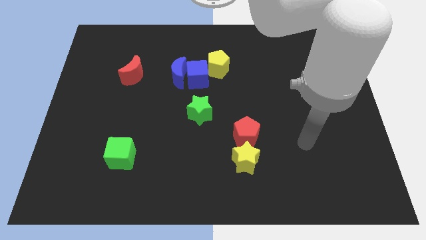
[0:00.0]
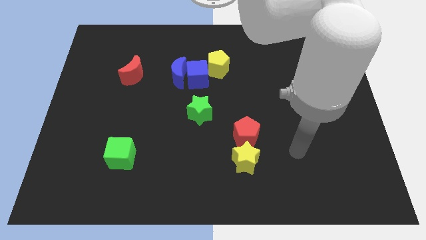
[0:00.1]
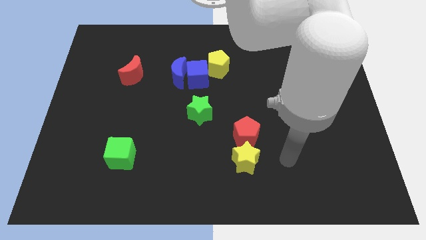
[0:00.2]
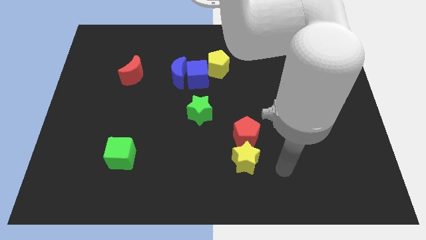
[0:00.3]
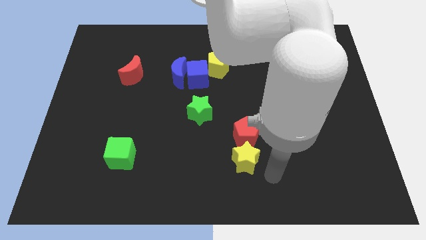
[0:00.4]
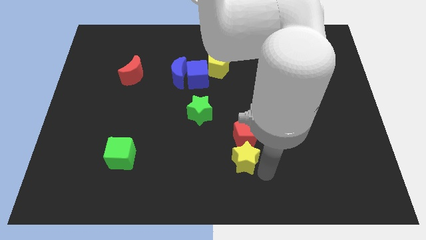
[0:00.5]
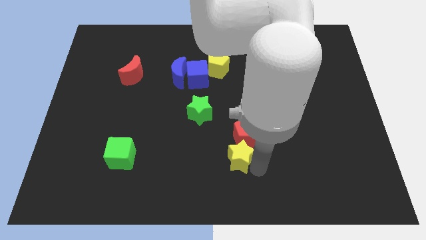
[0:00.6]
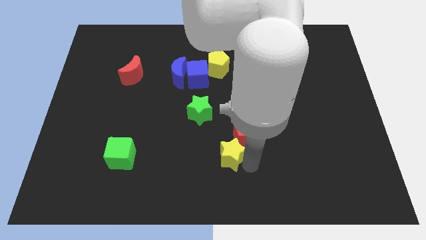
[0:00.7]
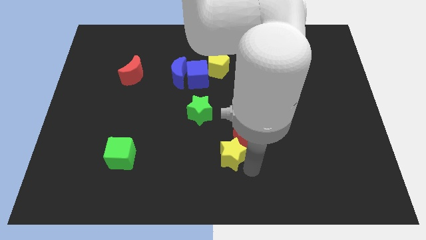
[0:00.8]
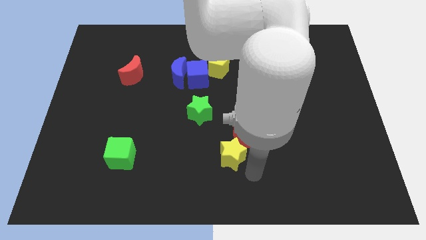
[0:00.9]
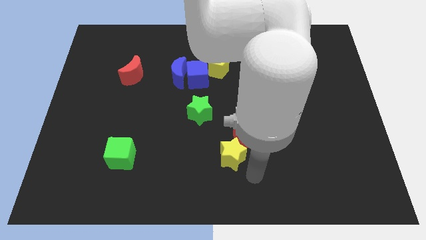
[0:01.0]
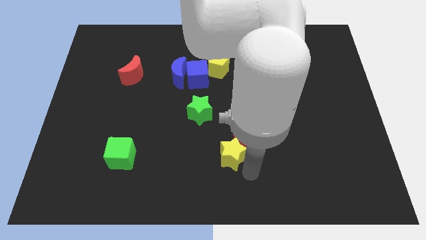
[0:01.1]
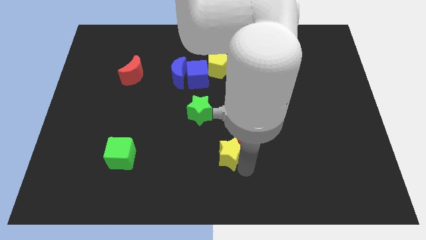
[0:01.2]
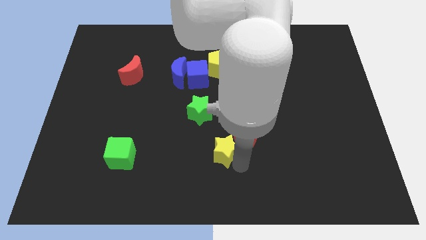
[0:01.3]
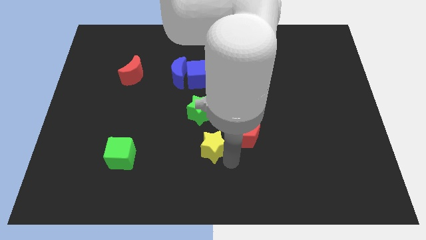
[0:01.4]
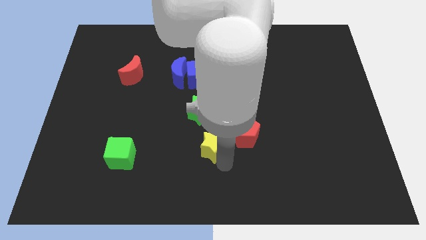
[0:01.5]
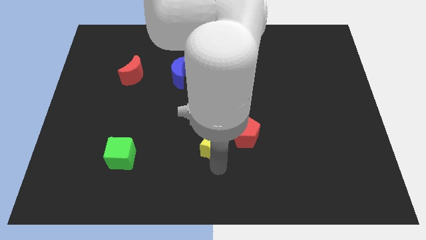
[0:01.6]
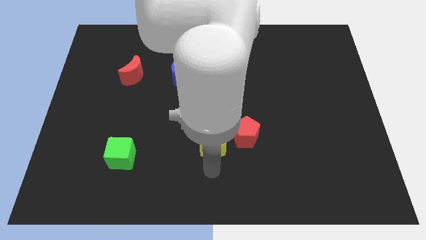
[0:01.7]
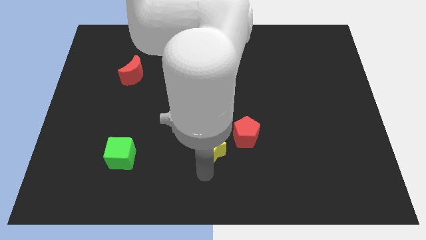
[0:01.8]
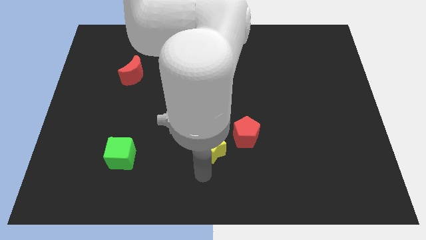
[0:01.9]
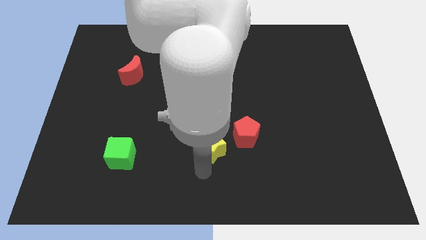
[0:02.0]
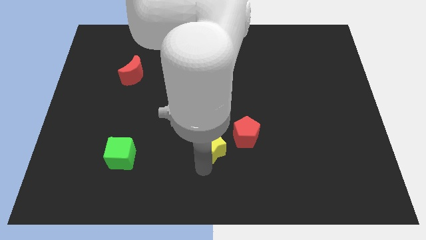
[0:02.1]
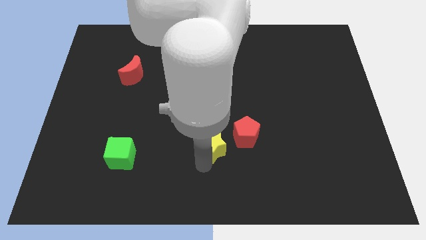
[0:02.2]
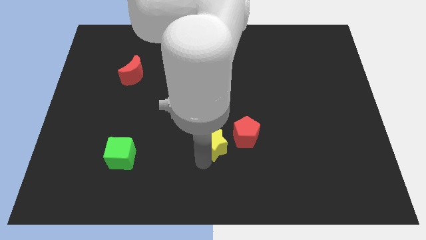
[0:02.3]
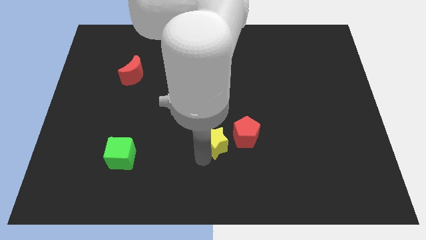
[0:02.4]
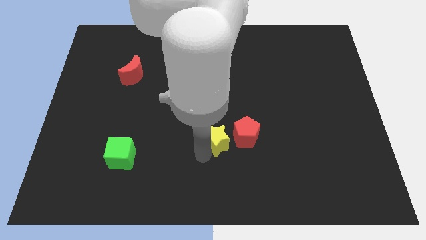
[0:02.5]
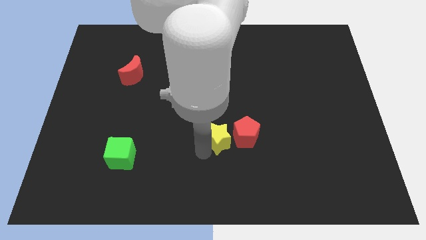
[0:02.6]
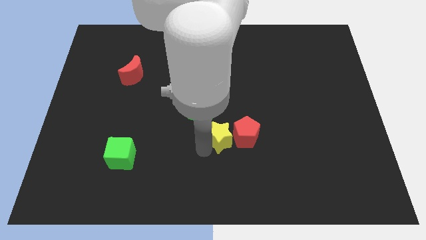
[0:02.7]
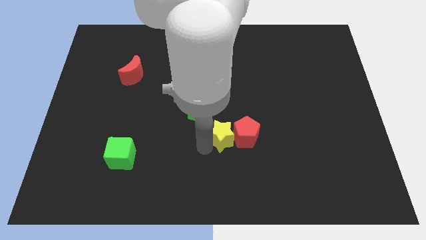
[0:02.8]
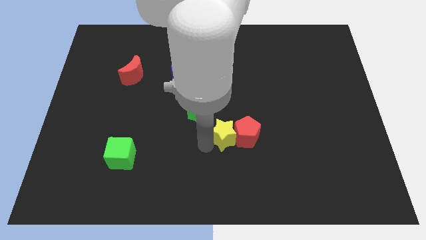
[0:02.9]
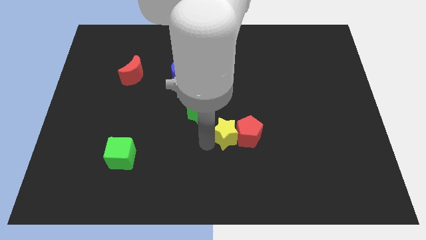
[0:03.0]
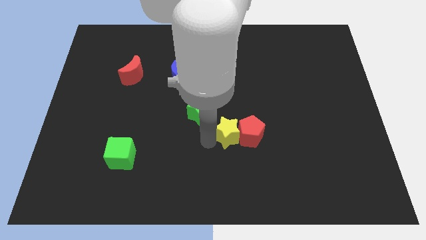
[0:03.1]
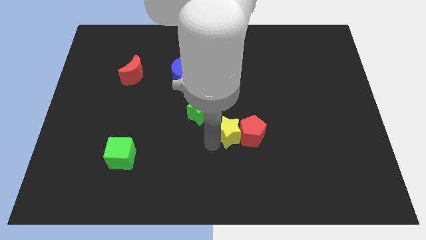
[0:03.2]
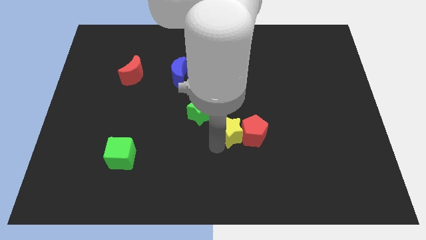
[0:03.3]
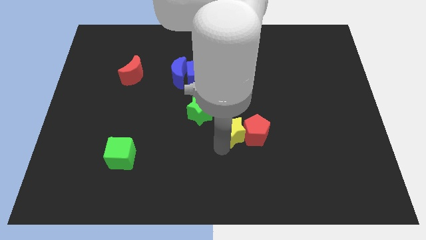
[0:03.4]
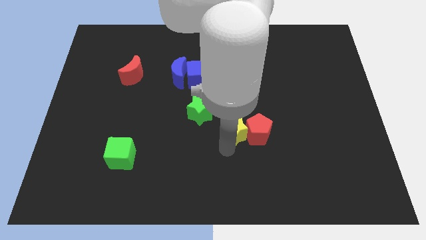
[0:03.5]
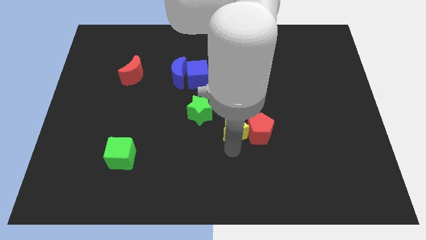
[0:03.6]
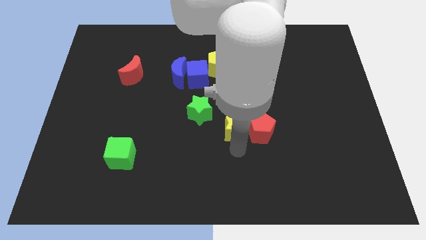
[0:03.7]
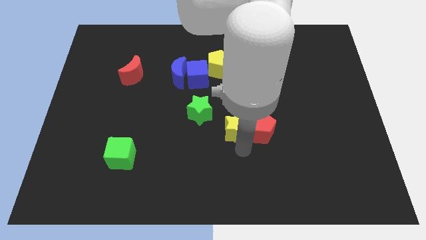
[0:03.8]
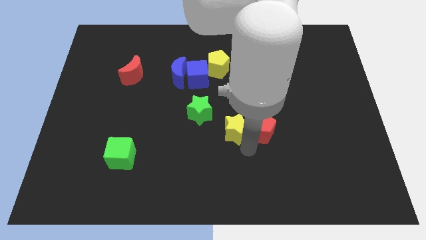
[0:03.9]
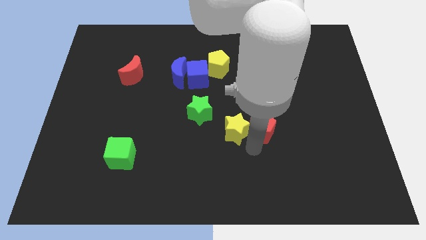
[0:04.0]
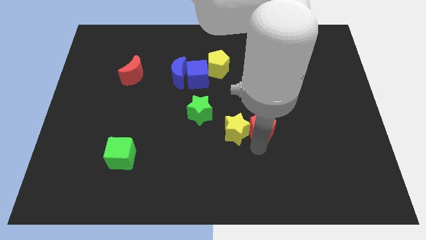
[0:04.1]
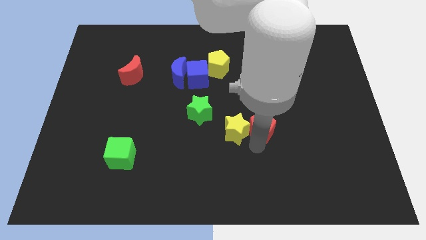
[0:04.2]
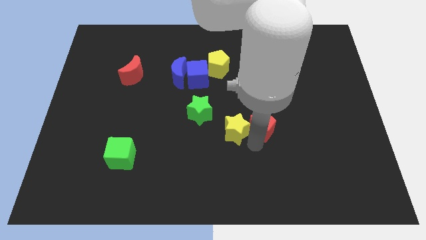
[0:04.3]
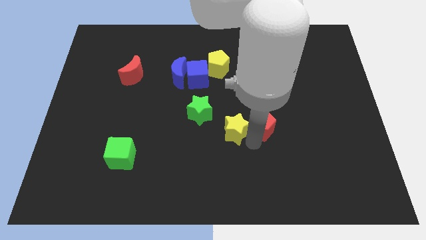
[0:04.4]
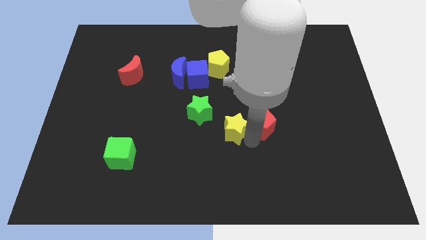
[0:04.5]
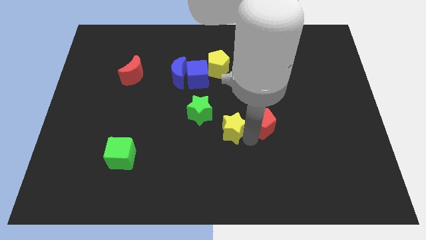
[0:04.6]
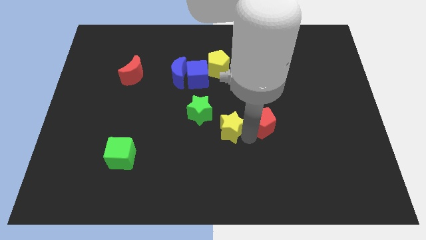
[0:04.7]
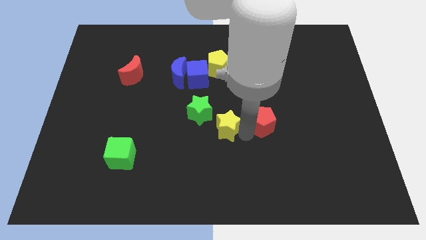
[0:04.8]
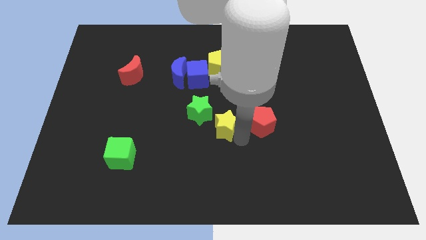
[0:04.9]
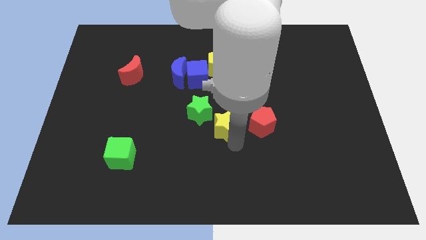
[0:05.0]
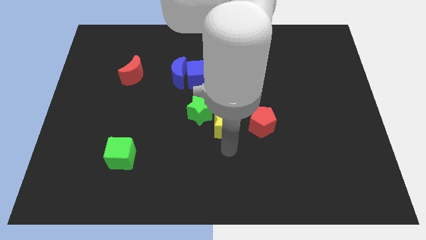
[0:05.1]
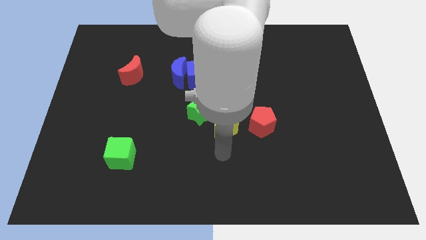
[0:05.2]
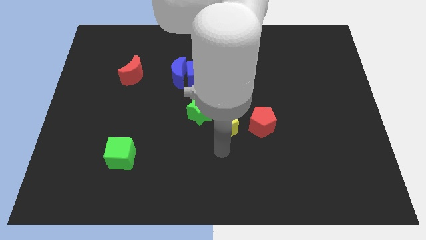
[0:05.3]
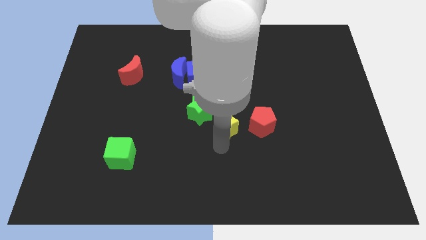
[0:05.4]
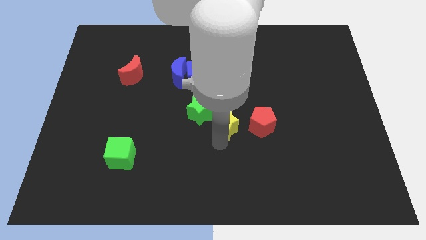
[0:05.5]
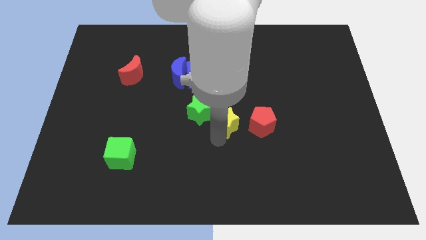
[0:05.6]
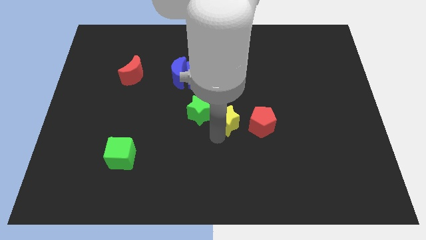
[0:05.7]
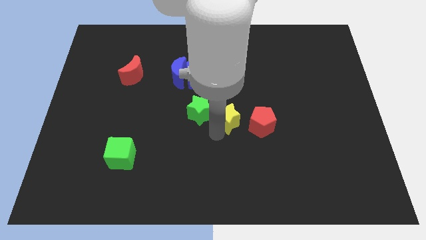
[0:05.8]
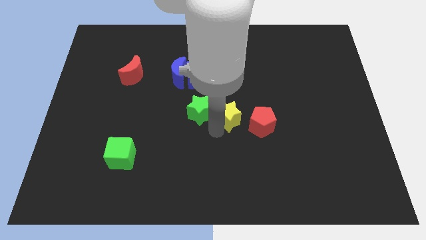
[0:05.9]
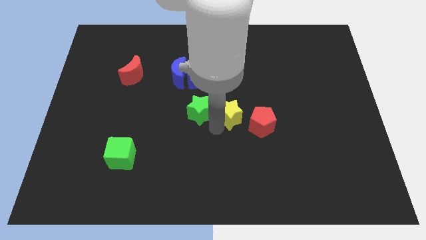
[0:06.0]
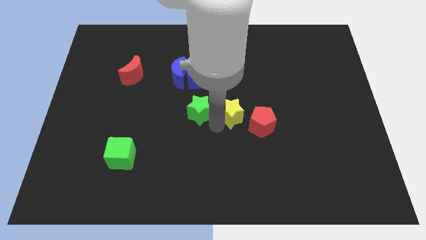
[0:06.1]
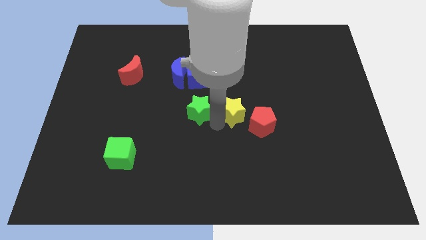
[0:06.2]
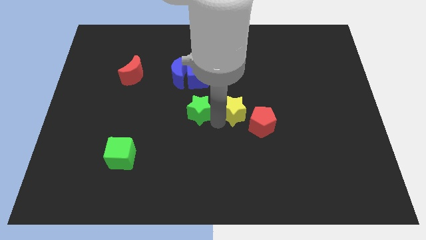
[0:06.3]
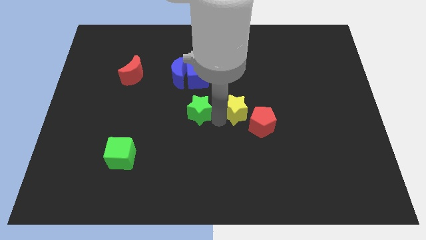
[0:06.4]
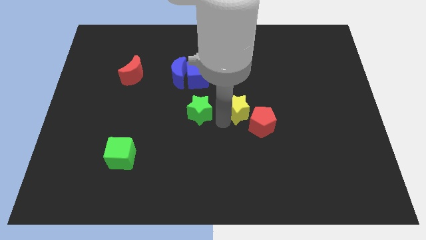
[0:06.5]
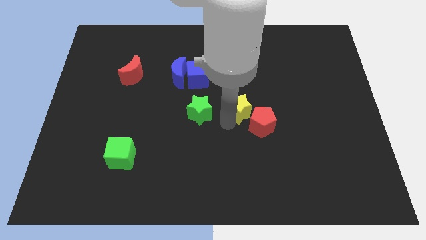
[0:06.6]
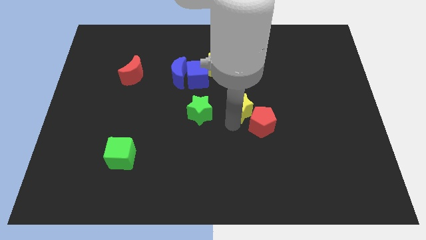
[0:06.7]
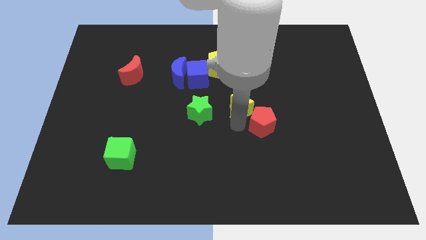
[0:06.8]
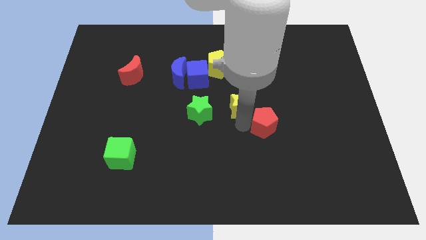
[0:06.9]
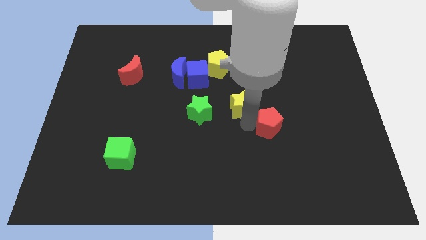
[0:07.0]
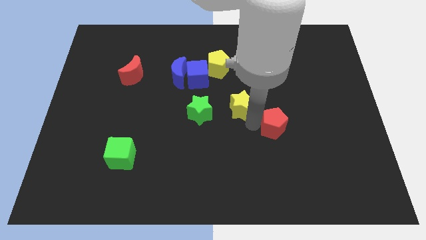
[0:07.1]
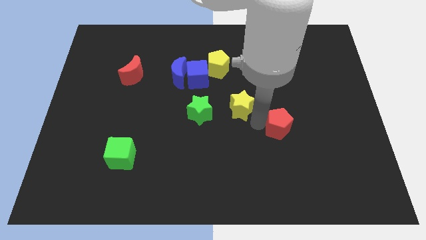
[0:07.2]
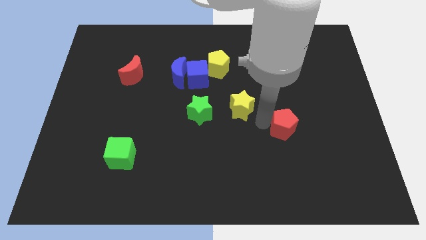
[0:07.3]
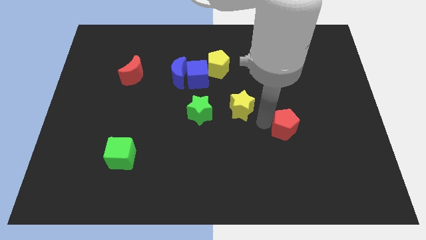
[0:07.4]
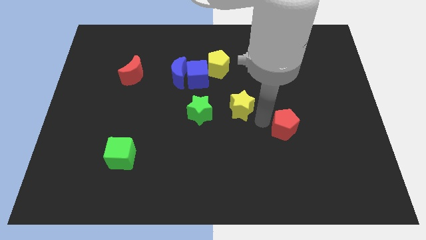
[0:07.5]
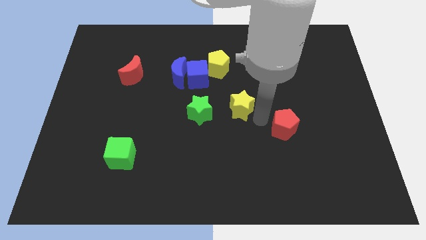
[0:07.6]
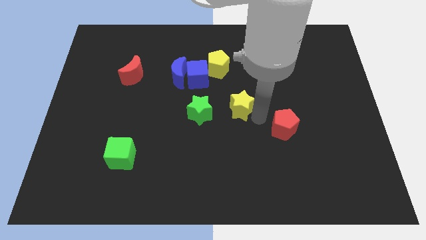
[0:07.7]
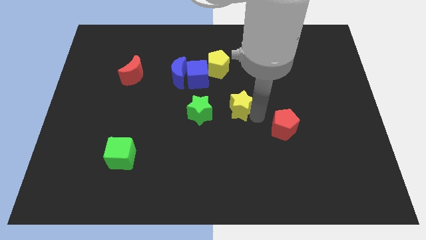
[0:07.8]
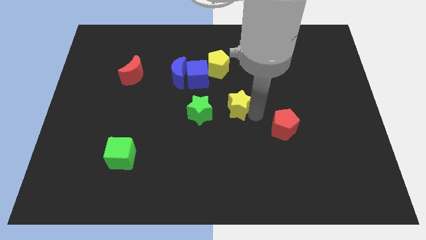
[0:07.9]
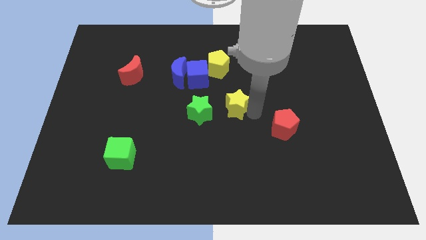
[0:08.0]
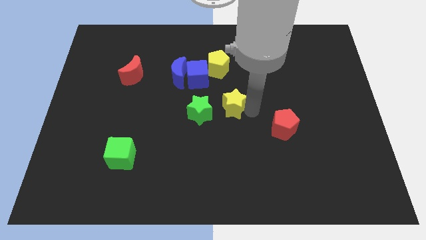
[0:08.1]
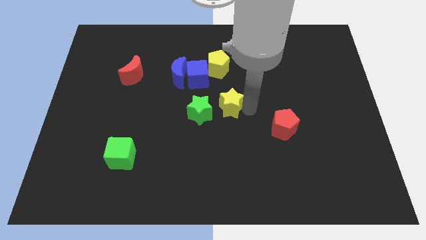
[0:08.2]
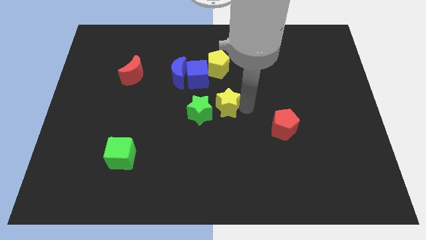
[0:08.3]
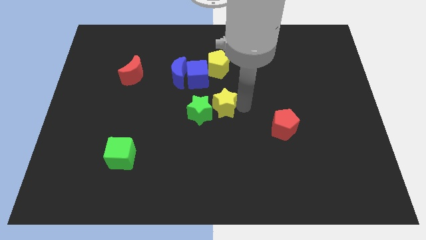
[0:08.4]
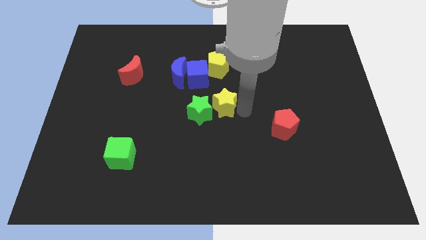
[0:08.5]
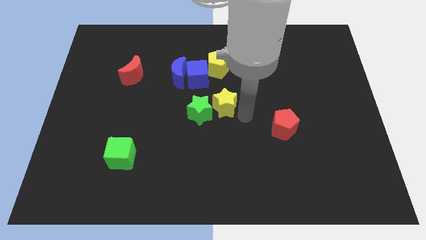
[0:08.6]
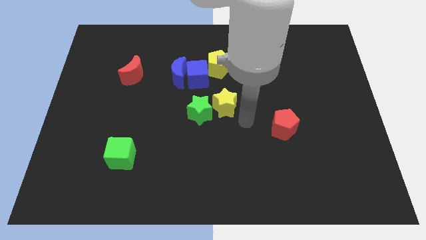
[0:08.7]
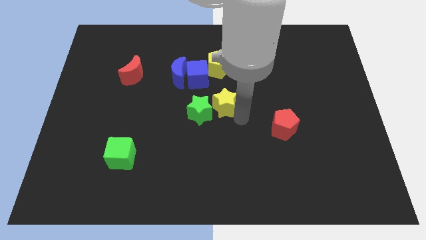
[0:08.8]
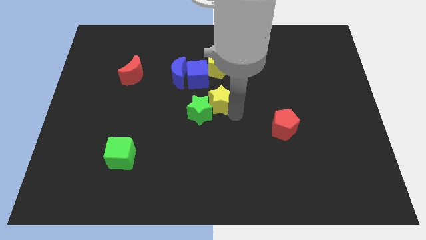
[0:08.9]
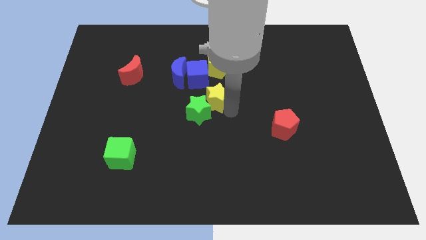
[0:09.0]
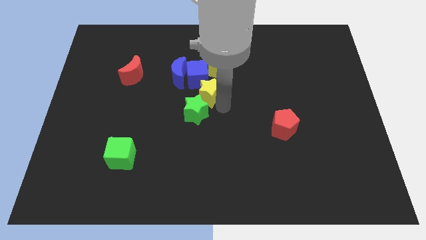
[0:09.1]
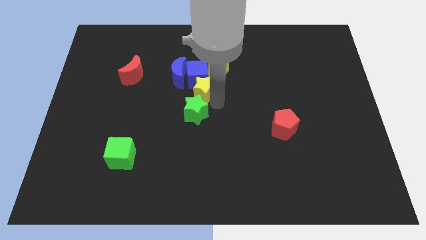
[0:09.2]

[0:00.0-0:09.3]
put the yellow star towards the blue cube
